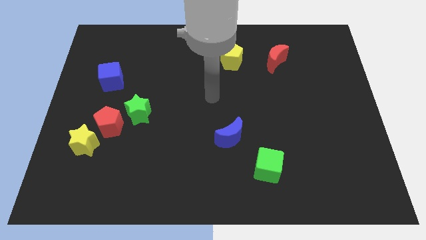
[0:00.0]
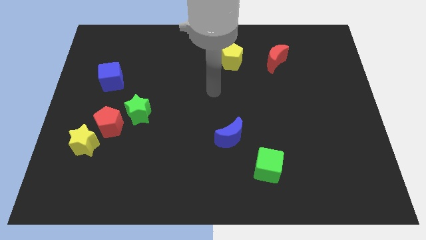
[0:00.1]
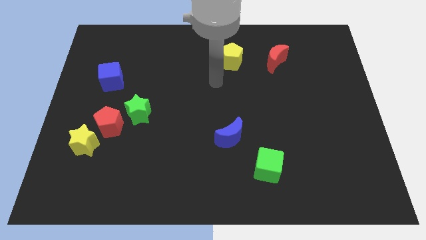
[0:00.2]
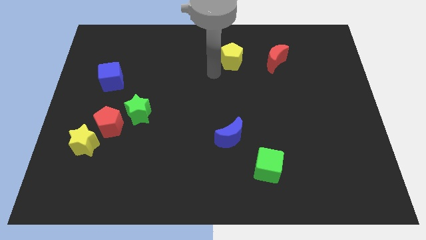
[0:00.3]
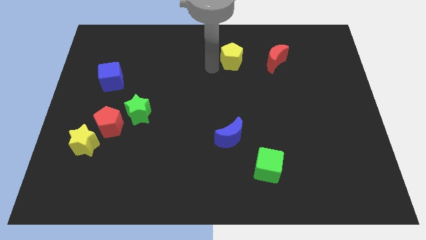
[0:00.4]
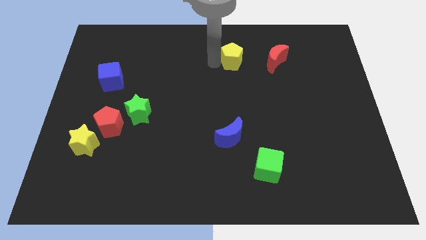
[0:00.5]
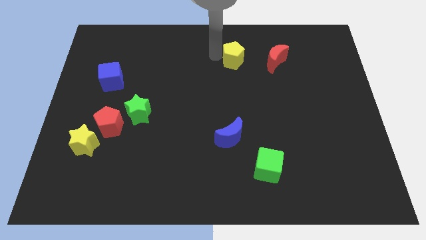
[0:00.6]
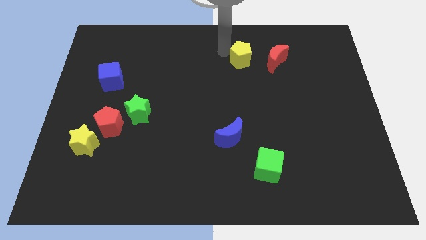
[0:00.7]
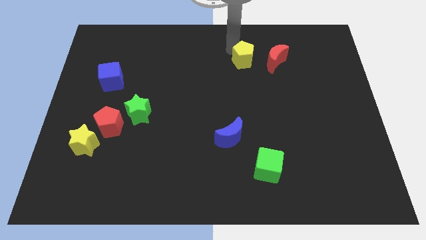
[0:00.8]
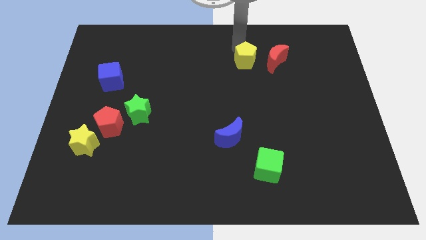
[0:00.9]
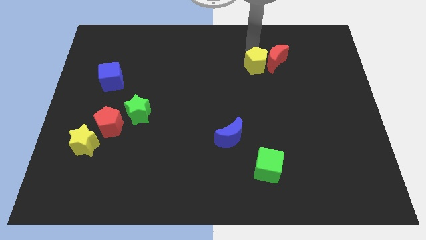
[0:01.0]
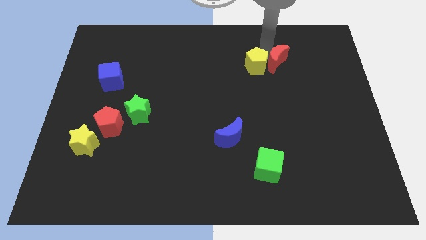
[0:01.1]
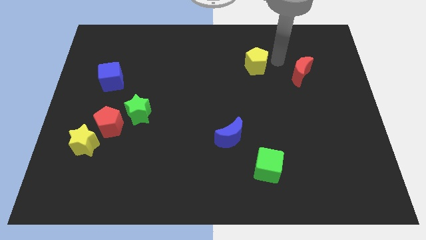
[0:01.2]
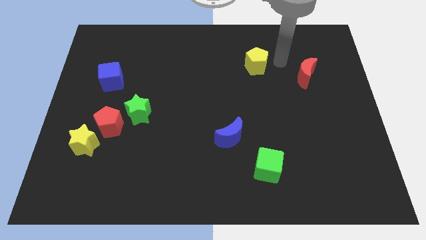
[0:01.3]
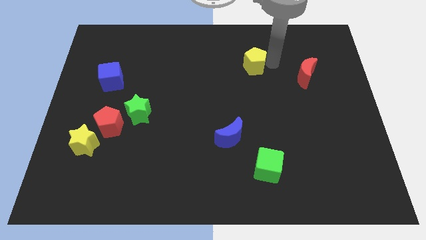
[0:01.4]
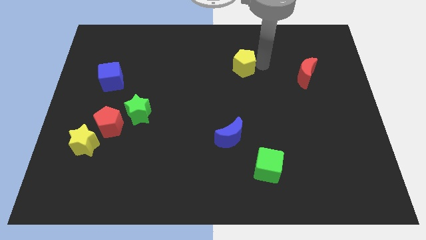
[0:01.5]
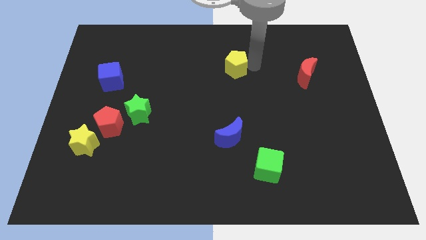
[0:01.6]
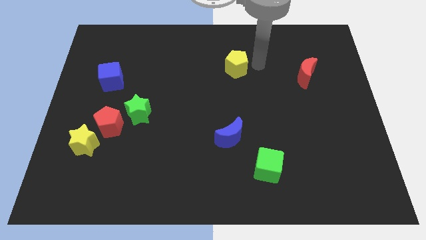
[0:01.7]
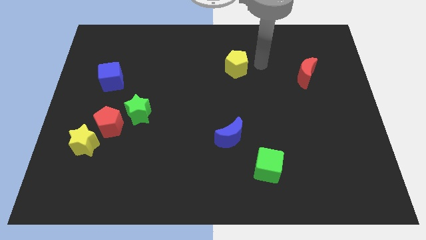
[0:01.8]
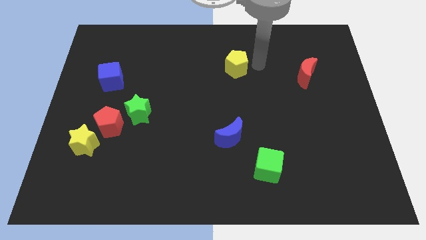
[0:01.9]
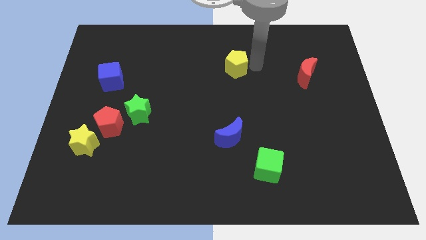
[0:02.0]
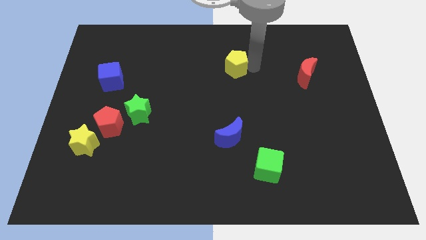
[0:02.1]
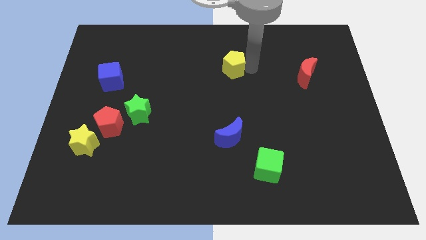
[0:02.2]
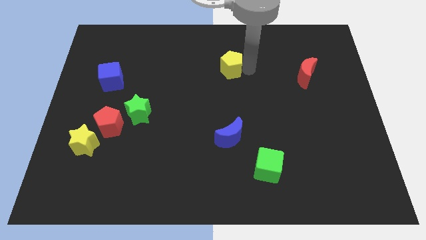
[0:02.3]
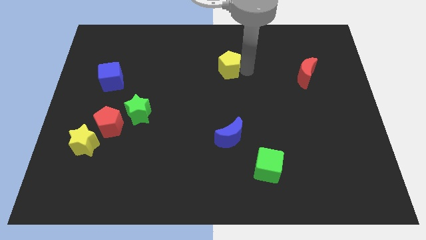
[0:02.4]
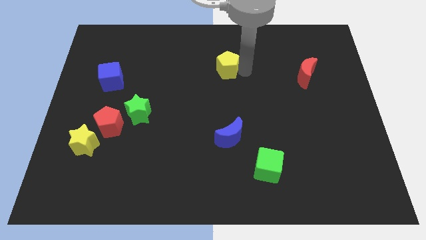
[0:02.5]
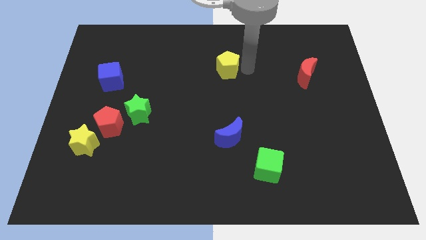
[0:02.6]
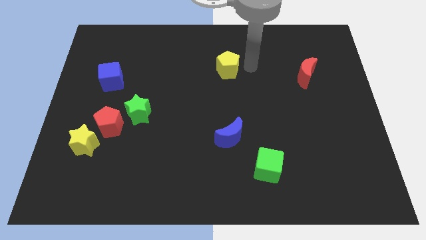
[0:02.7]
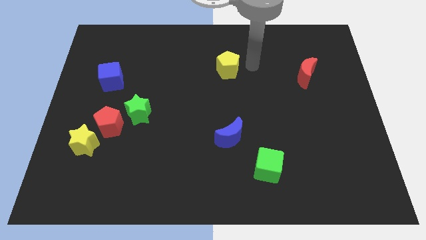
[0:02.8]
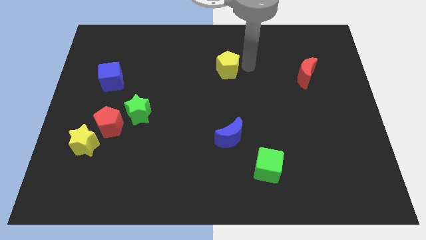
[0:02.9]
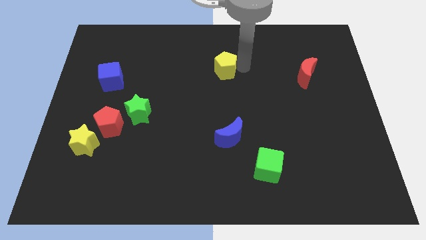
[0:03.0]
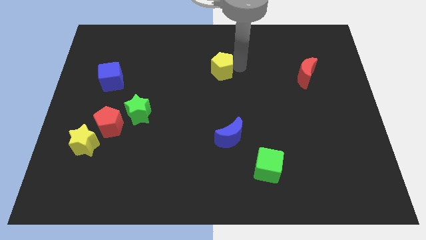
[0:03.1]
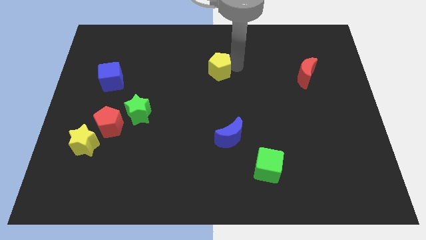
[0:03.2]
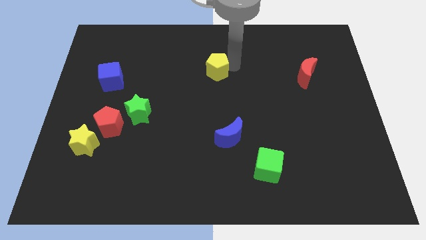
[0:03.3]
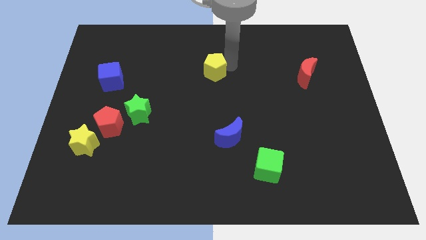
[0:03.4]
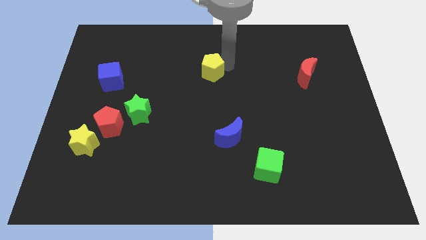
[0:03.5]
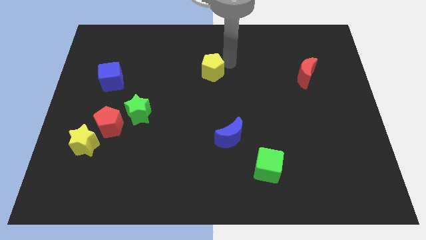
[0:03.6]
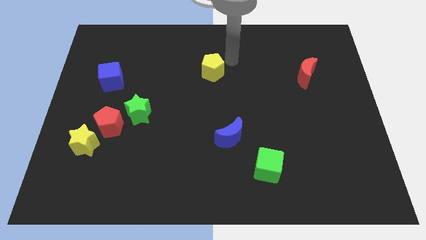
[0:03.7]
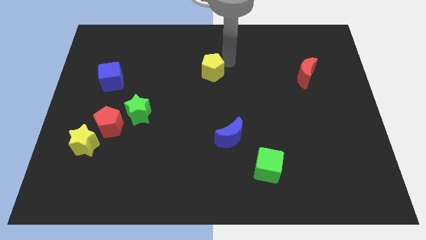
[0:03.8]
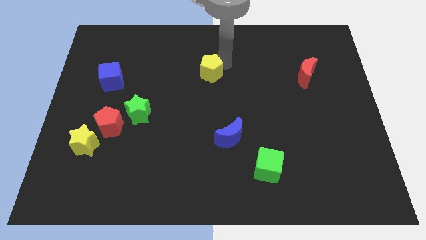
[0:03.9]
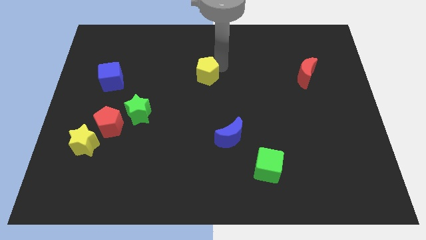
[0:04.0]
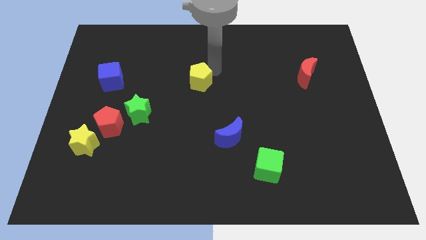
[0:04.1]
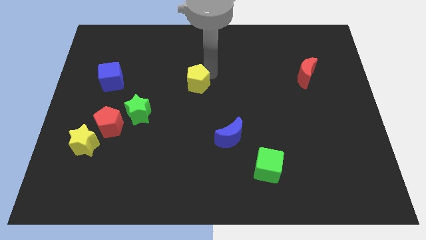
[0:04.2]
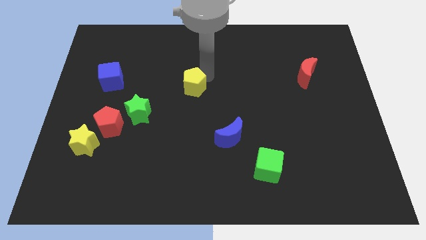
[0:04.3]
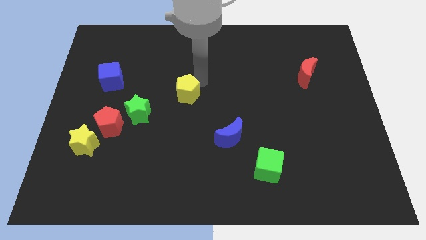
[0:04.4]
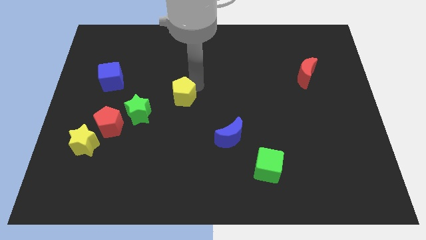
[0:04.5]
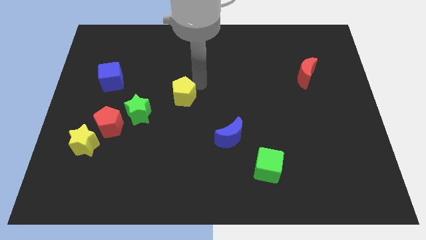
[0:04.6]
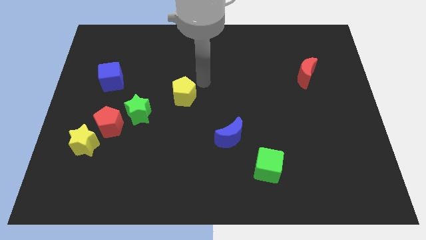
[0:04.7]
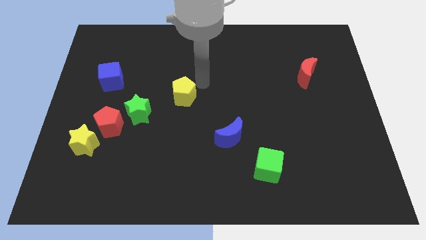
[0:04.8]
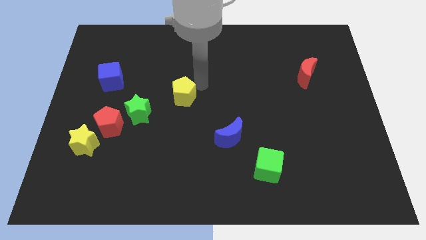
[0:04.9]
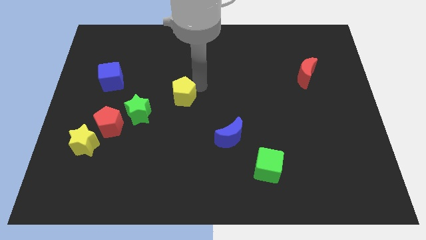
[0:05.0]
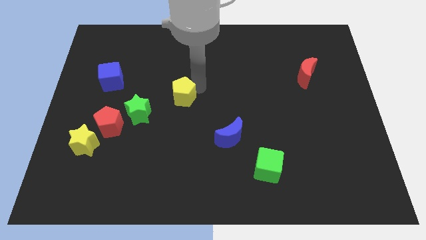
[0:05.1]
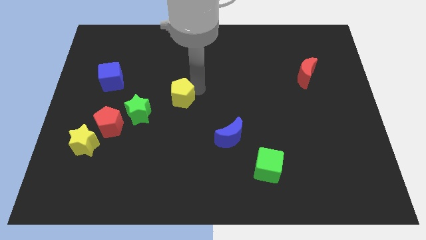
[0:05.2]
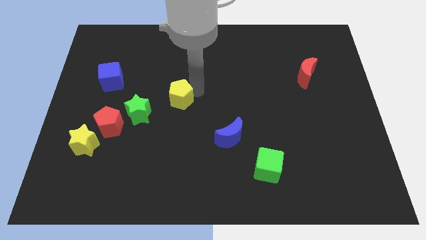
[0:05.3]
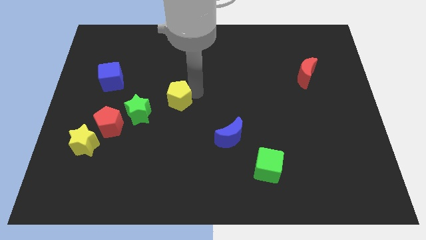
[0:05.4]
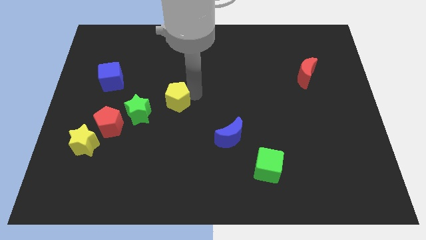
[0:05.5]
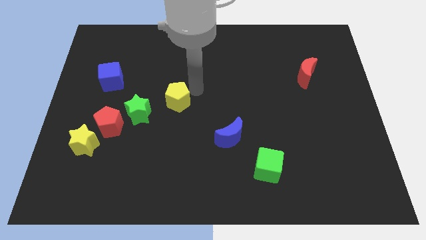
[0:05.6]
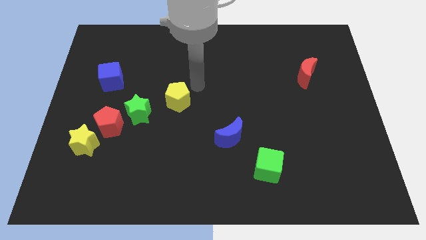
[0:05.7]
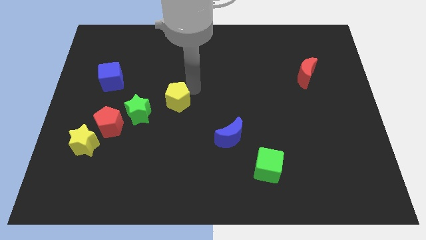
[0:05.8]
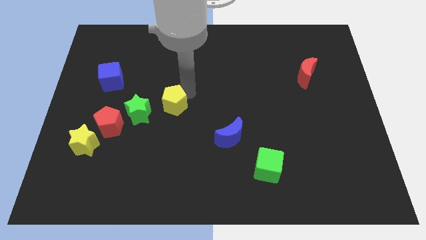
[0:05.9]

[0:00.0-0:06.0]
push the yellow pentagon down and left diagonally

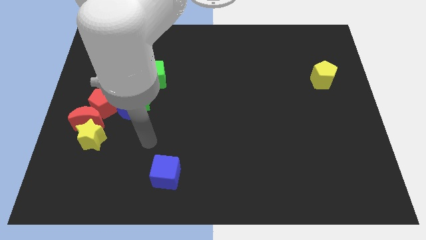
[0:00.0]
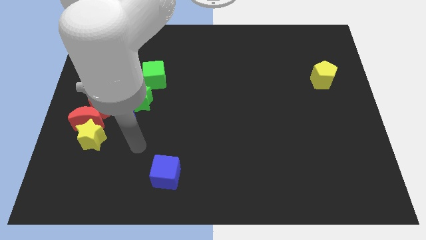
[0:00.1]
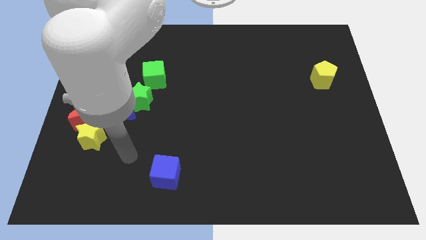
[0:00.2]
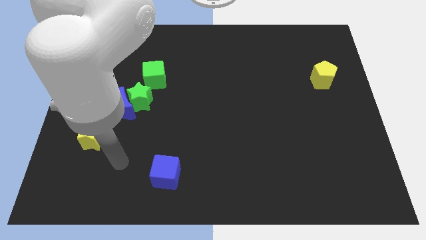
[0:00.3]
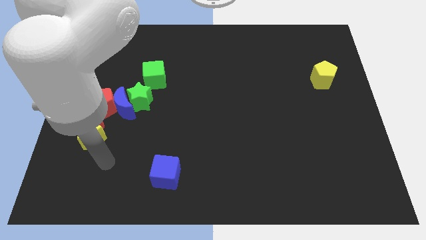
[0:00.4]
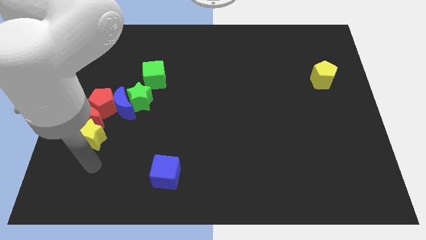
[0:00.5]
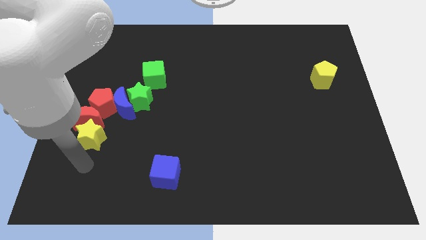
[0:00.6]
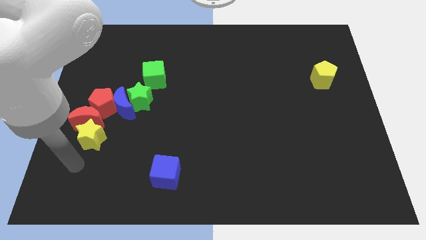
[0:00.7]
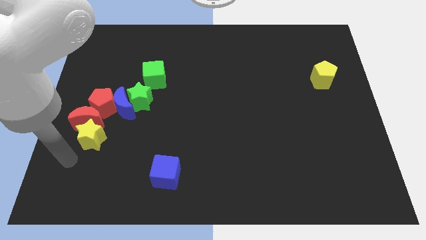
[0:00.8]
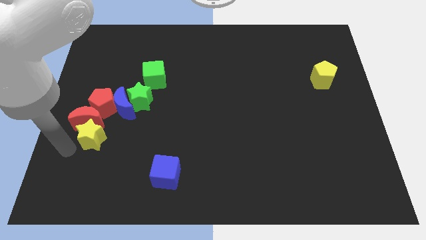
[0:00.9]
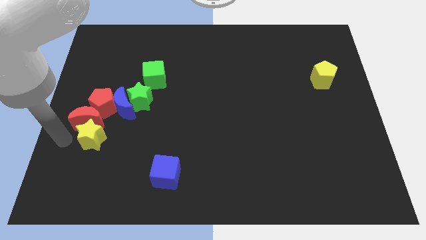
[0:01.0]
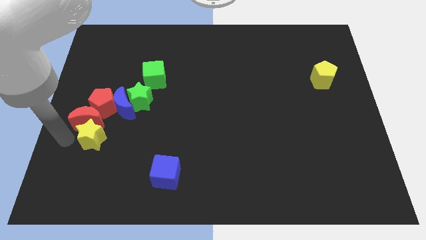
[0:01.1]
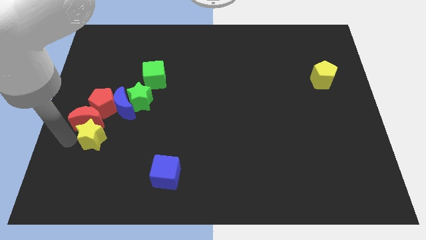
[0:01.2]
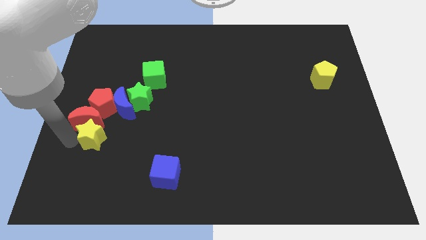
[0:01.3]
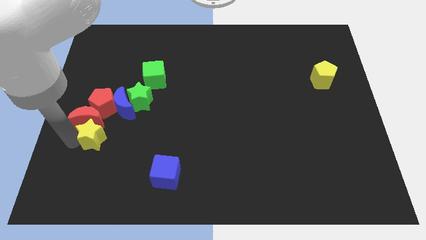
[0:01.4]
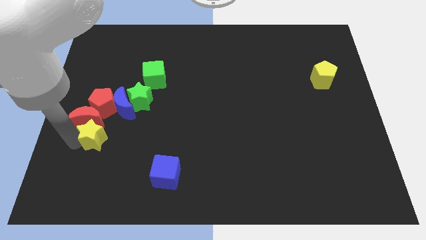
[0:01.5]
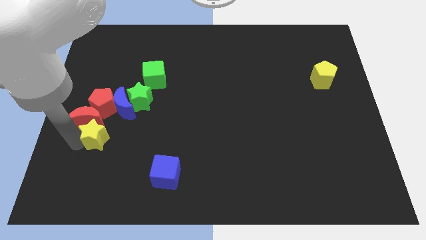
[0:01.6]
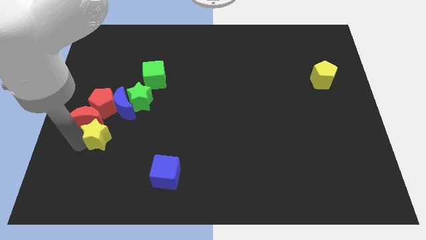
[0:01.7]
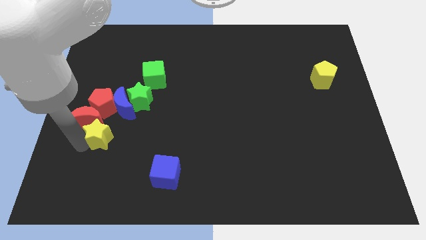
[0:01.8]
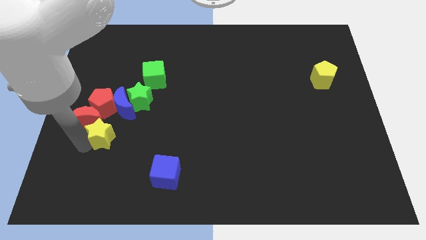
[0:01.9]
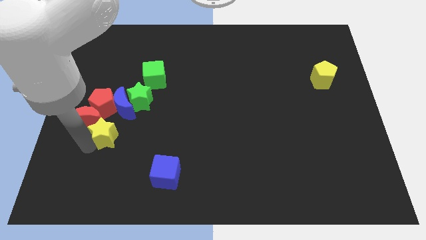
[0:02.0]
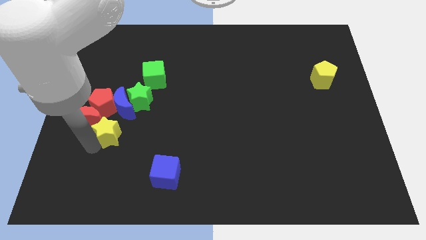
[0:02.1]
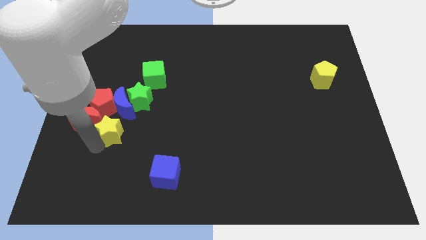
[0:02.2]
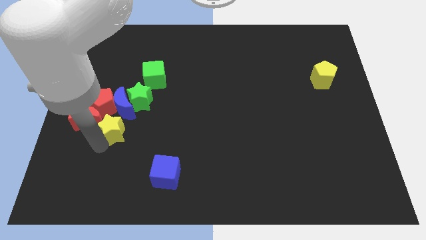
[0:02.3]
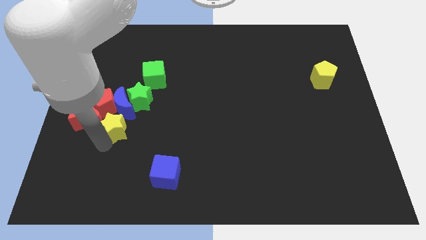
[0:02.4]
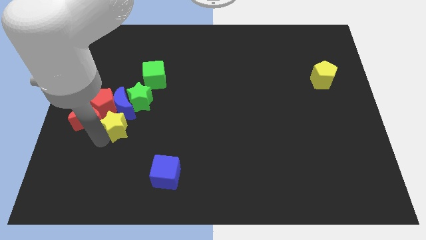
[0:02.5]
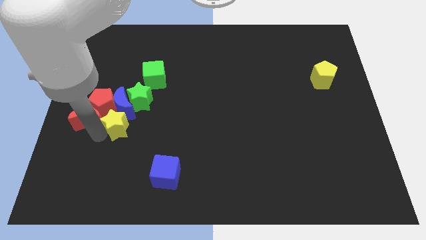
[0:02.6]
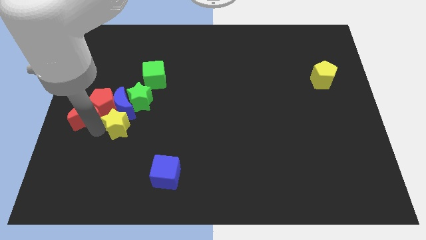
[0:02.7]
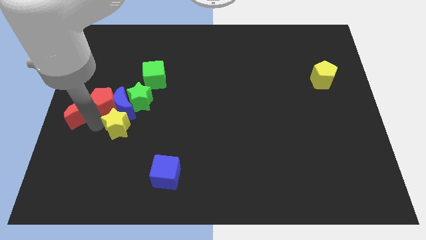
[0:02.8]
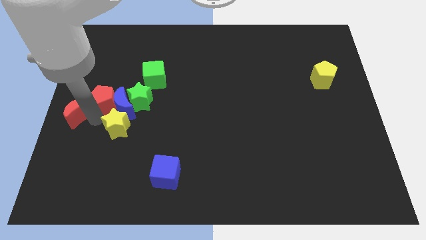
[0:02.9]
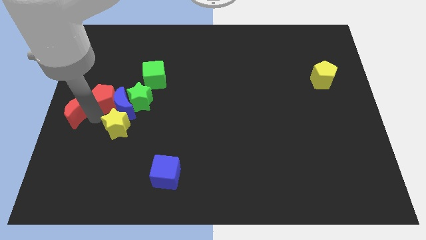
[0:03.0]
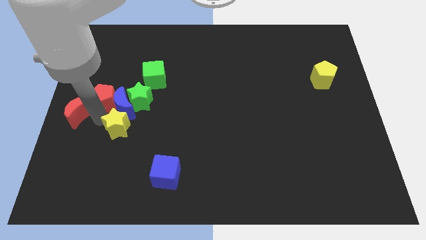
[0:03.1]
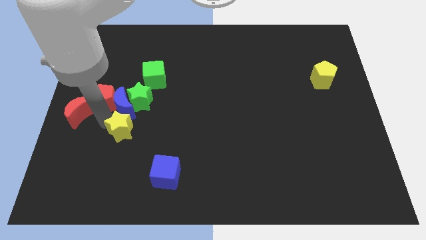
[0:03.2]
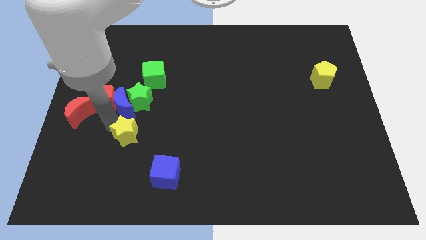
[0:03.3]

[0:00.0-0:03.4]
push the yellow star somewhat right
